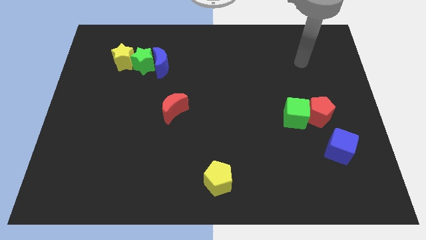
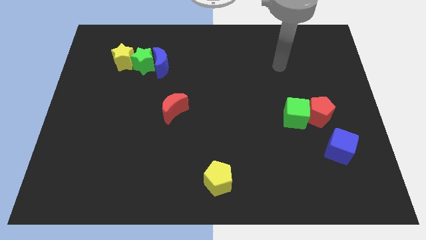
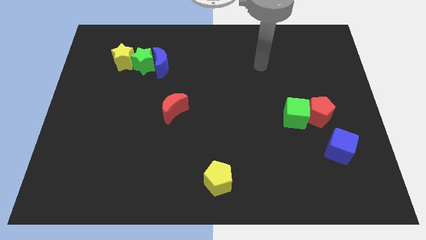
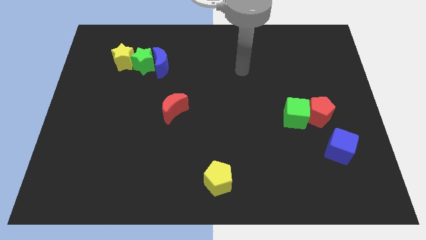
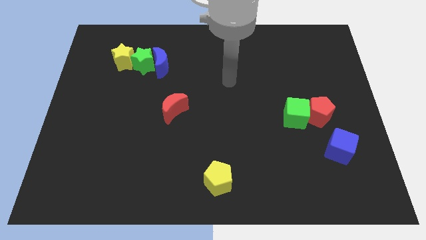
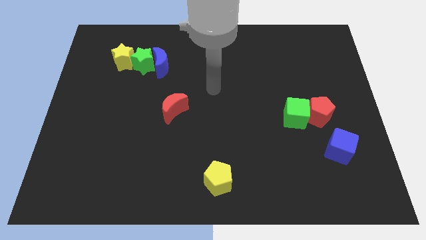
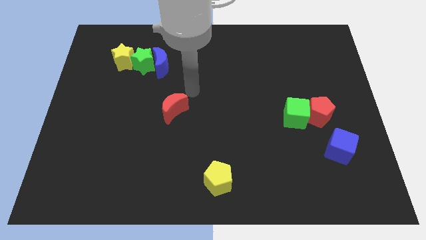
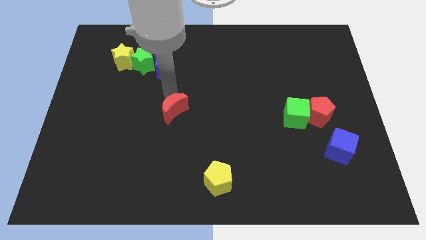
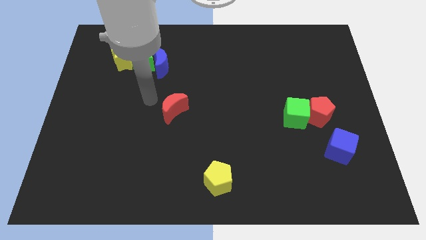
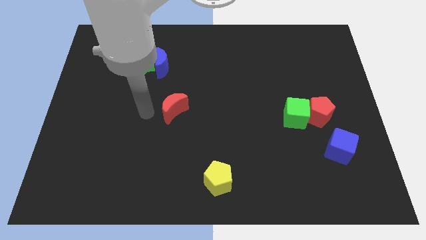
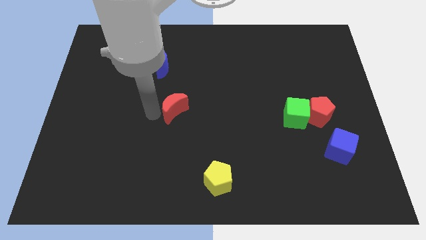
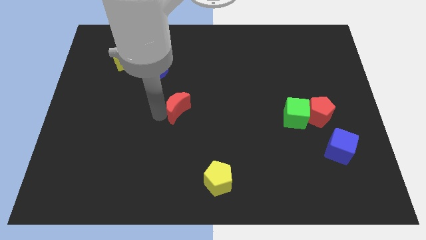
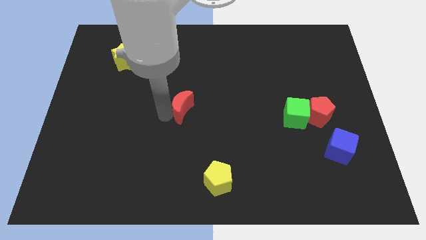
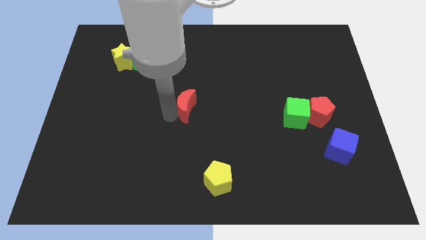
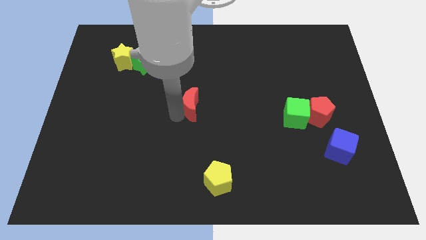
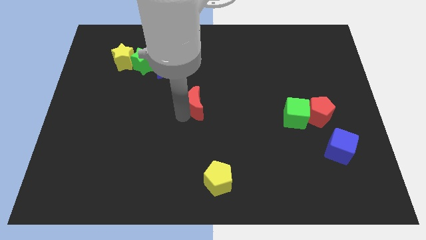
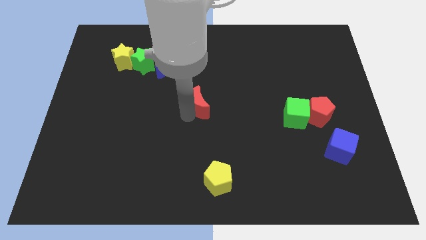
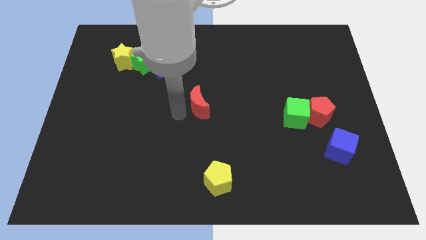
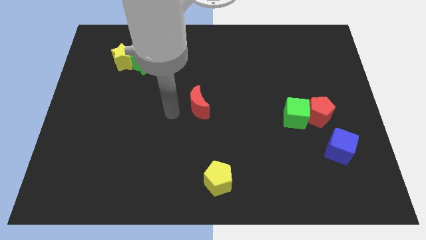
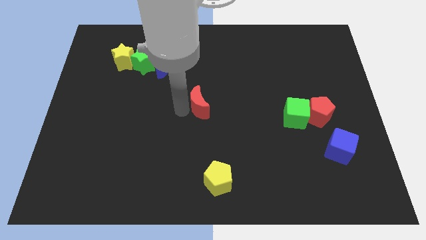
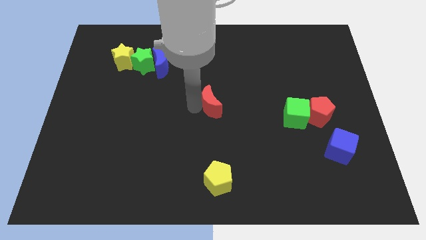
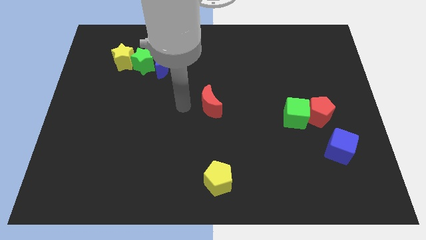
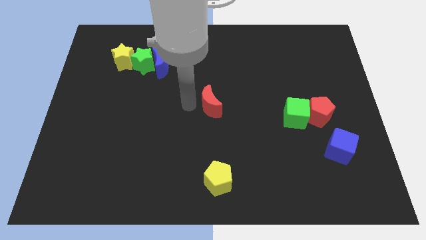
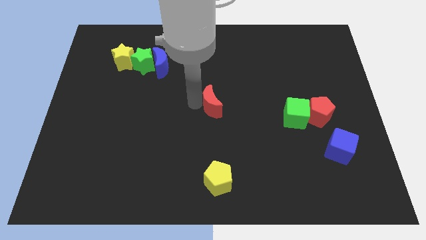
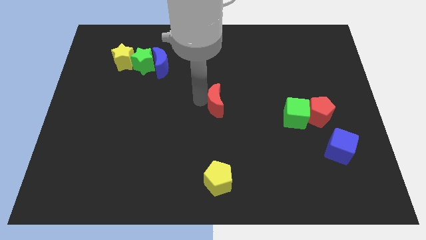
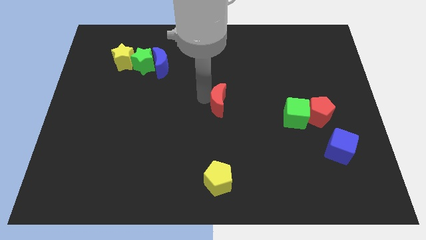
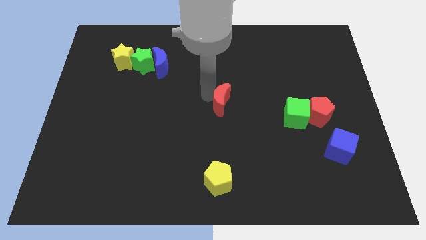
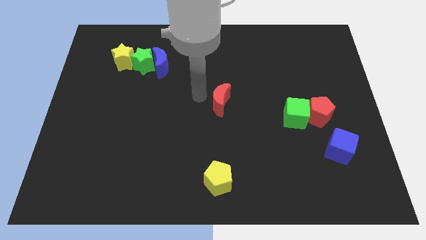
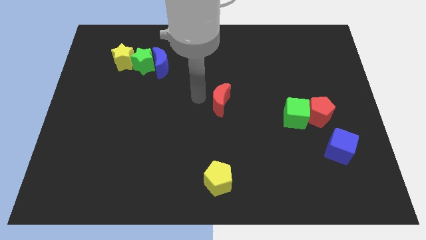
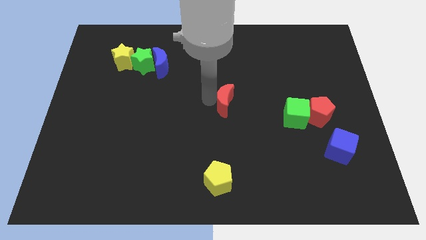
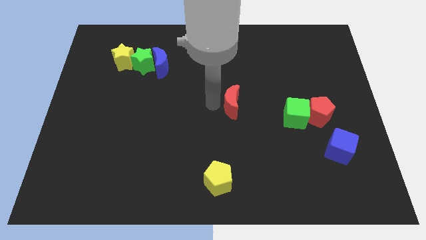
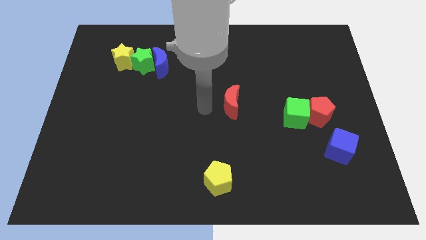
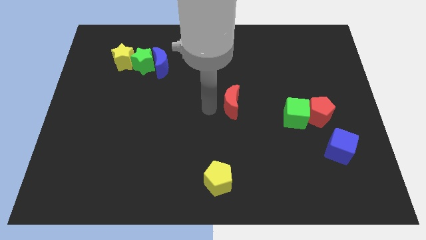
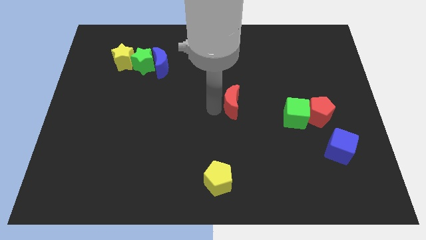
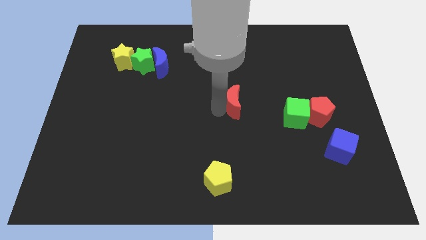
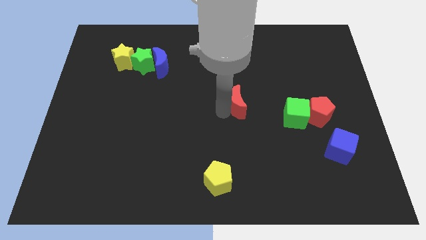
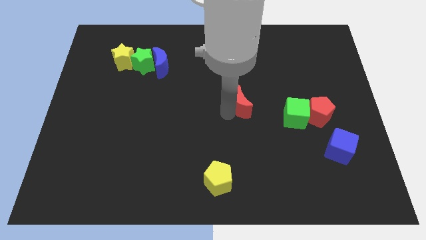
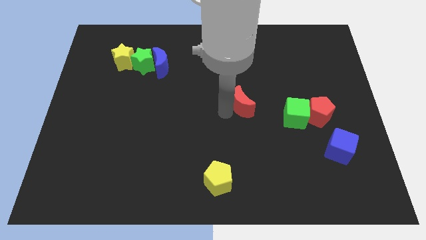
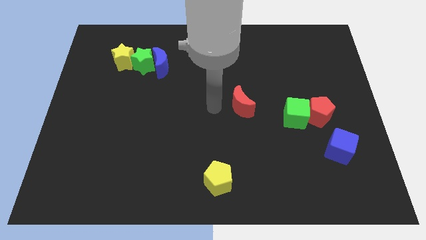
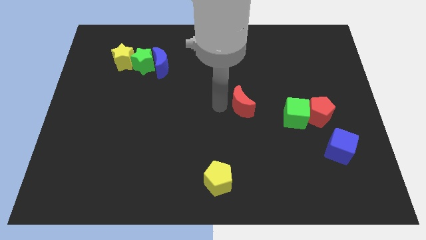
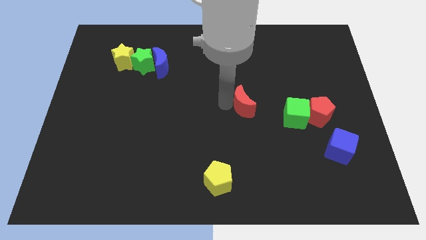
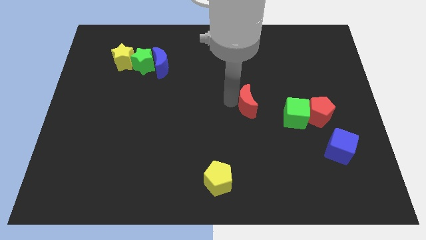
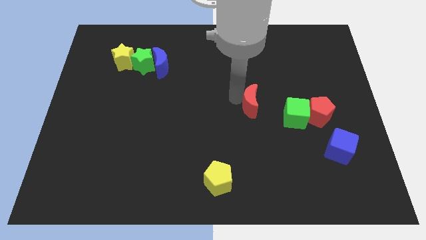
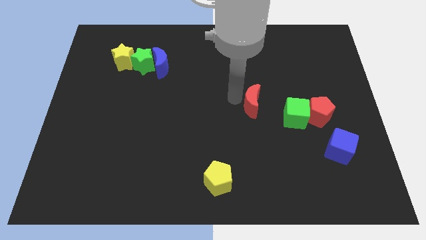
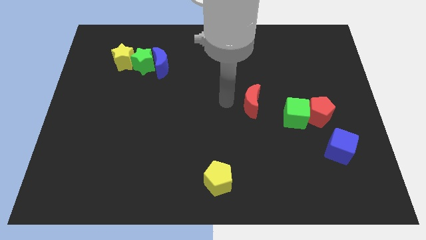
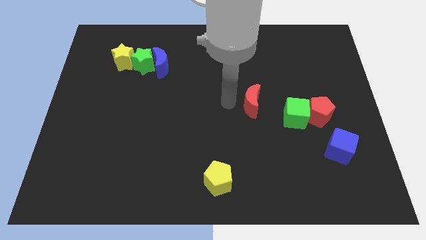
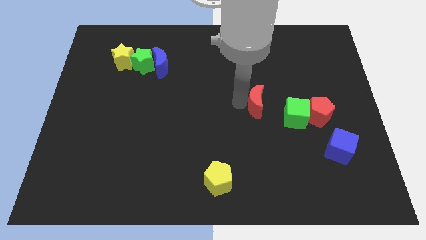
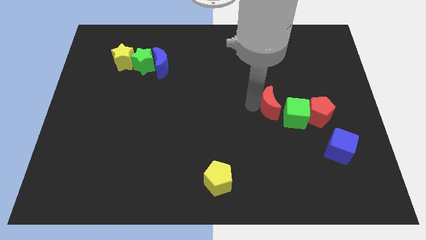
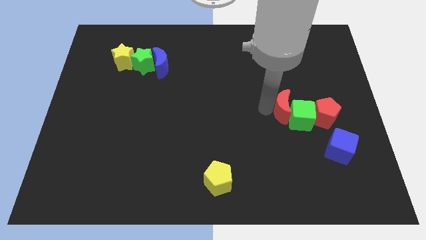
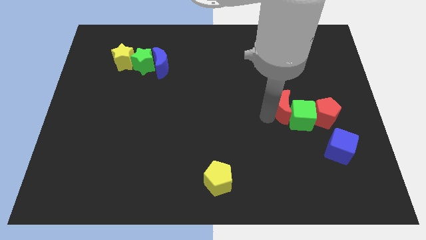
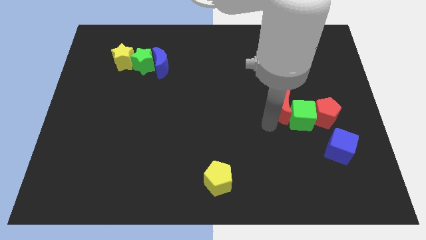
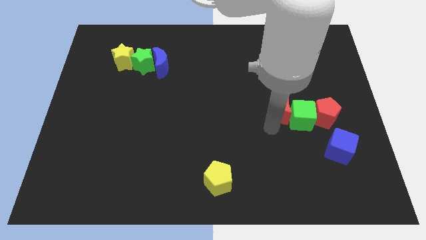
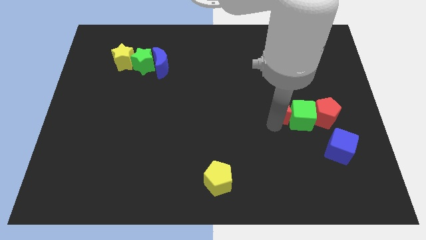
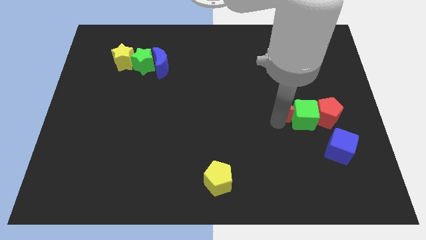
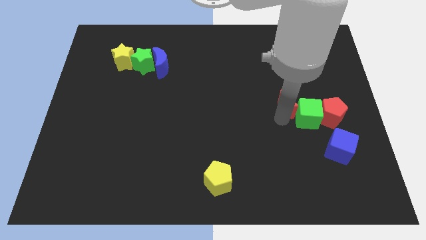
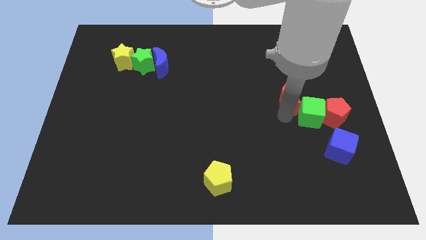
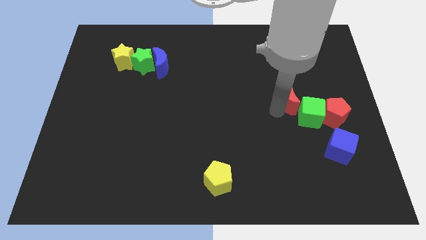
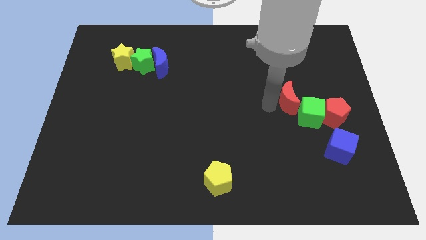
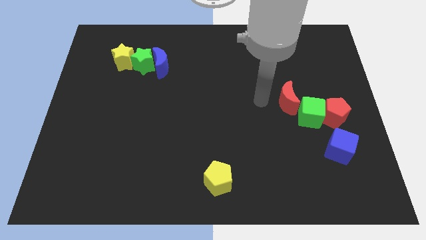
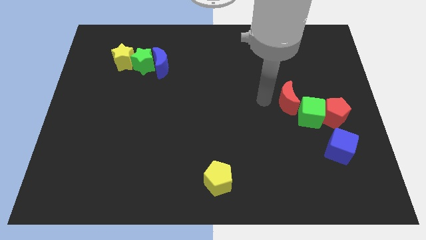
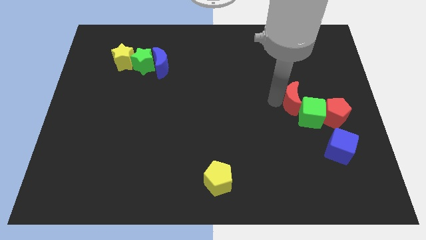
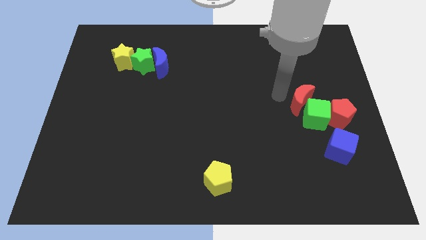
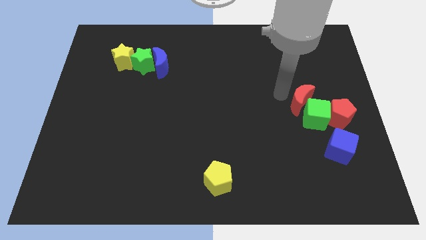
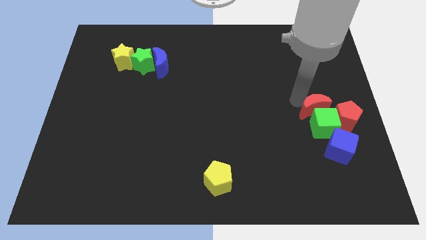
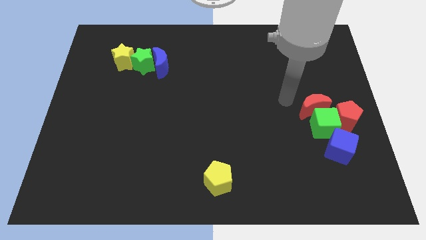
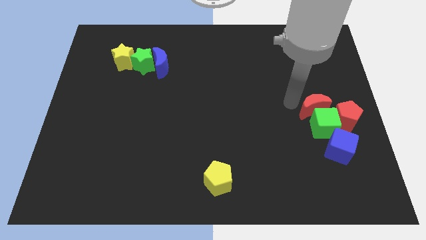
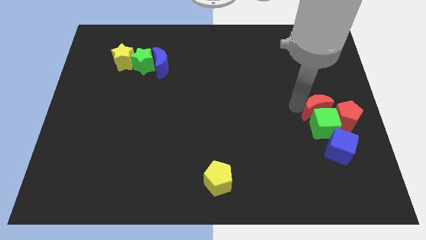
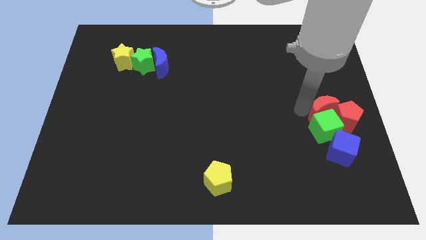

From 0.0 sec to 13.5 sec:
slide the red moon to the red pentagon

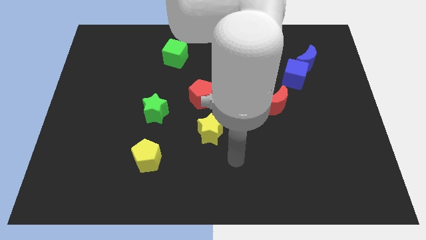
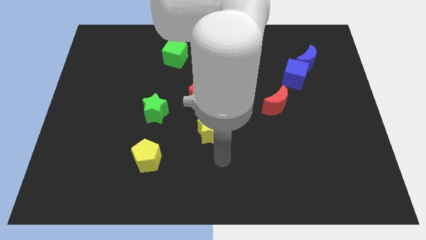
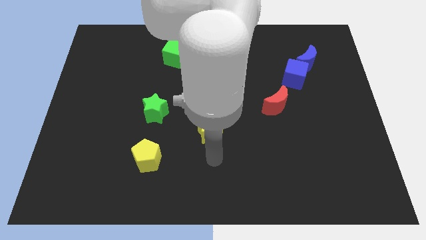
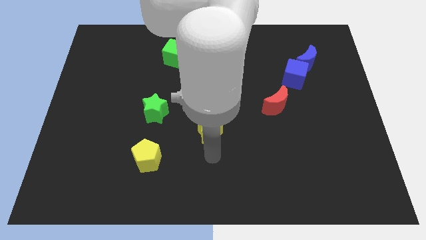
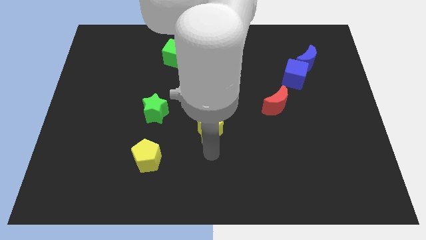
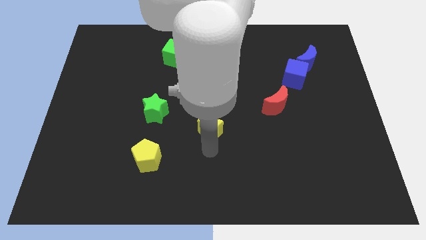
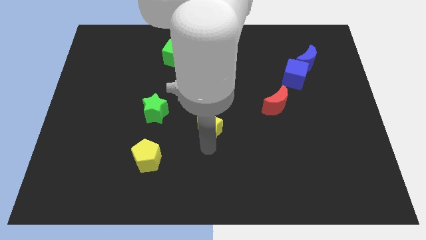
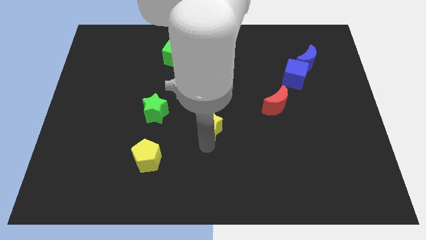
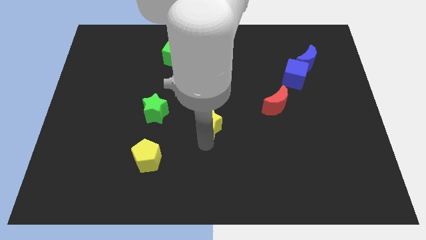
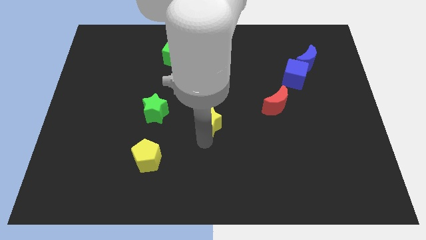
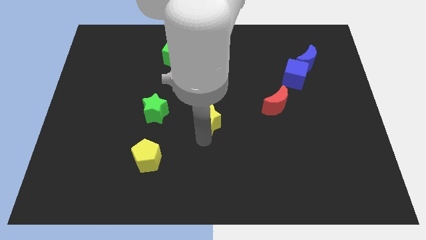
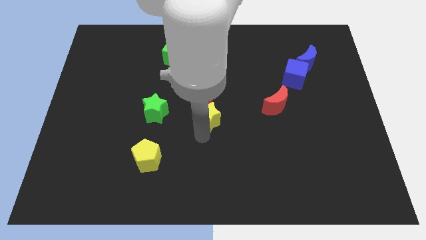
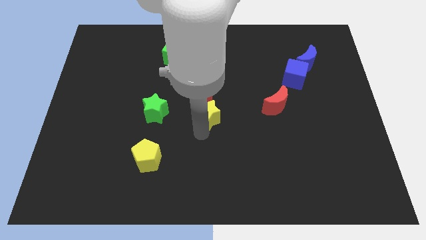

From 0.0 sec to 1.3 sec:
slide the yellow star towards the red pentagon
